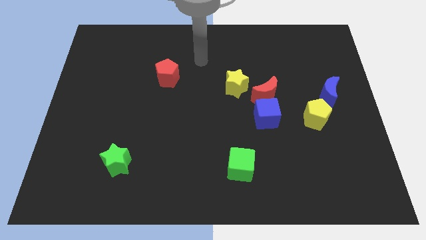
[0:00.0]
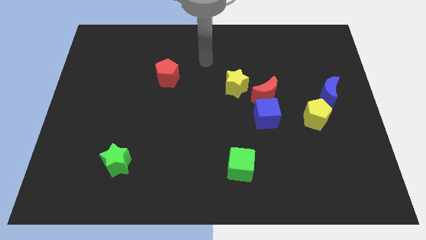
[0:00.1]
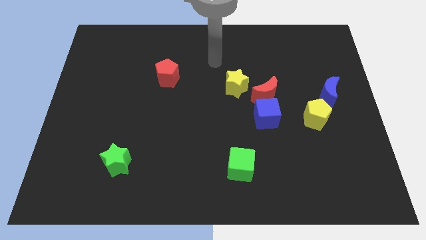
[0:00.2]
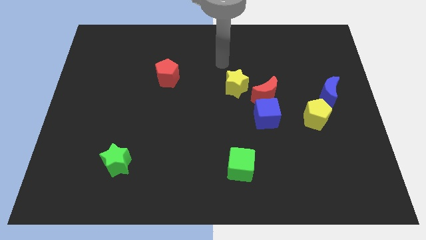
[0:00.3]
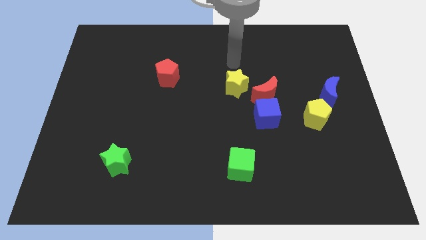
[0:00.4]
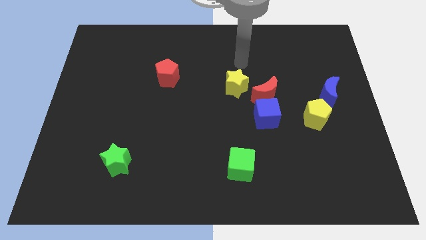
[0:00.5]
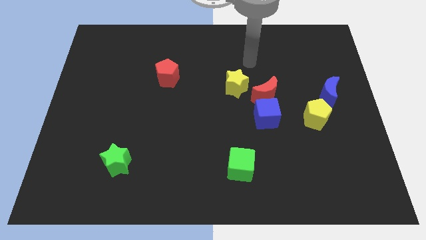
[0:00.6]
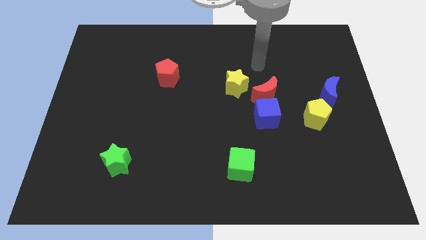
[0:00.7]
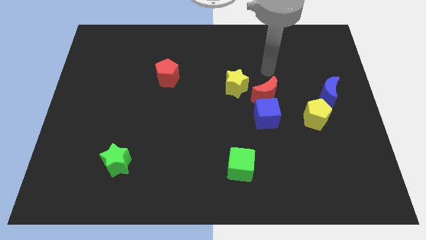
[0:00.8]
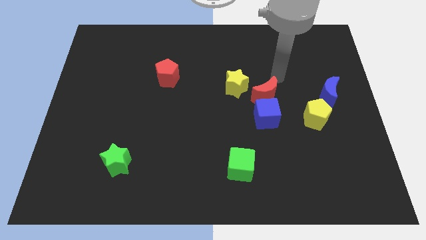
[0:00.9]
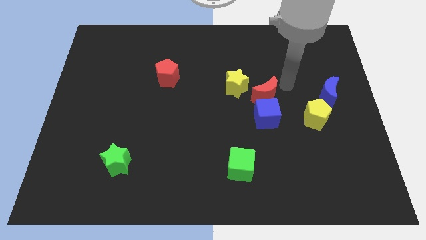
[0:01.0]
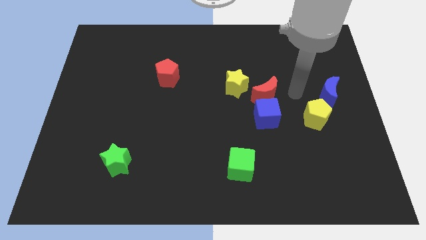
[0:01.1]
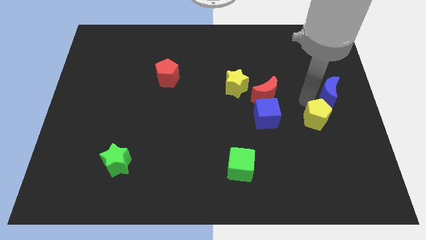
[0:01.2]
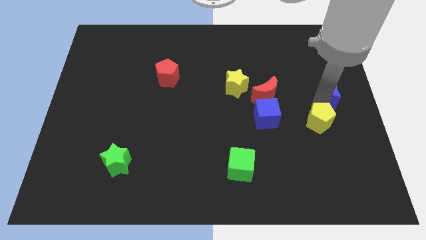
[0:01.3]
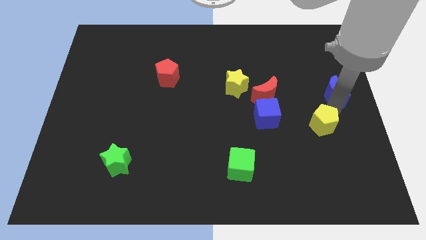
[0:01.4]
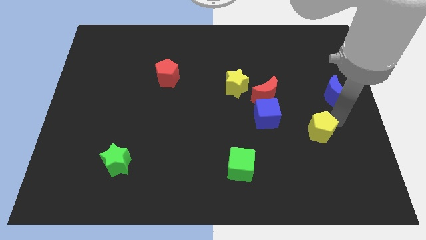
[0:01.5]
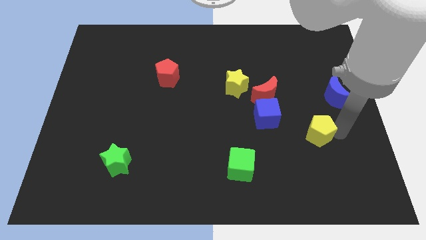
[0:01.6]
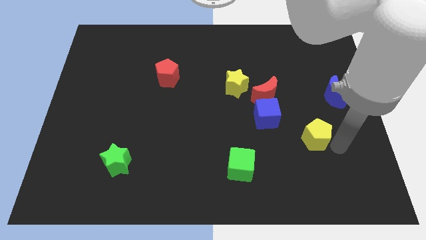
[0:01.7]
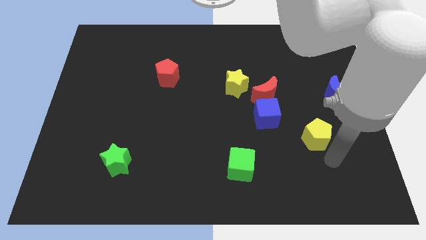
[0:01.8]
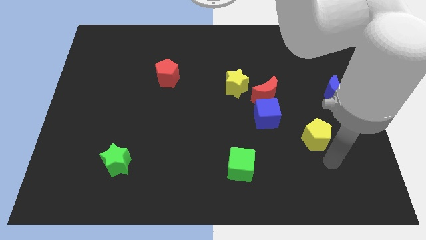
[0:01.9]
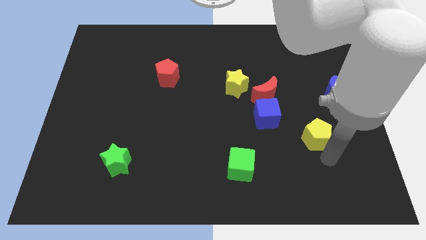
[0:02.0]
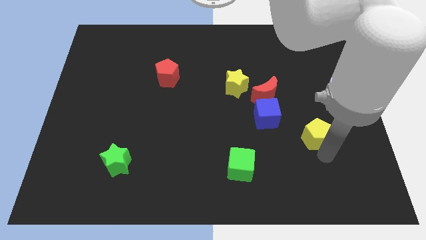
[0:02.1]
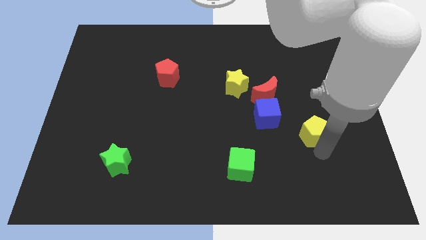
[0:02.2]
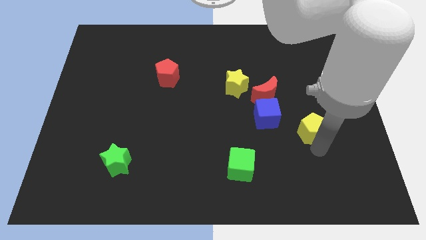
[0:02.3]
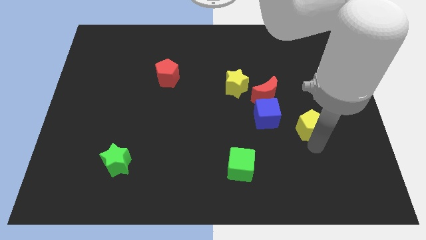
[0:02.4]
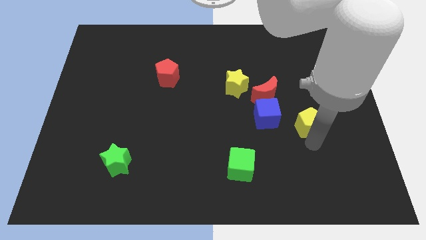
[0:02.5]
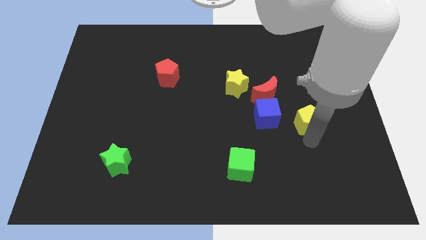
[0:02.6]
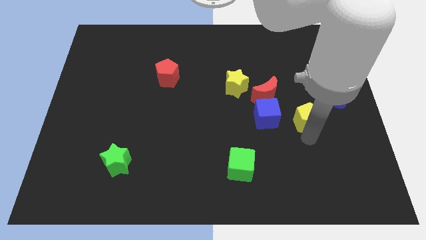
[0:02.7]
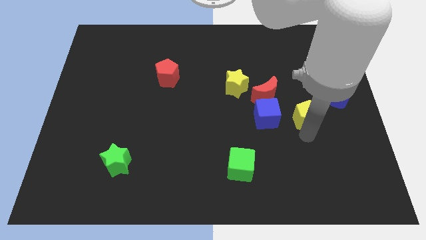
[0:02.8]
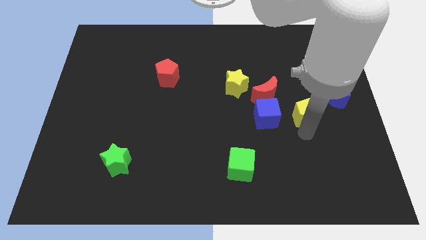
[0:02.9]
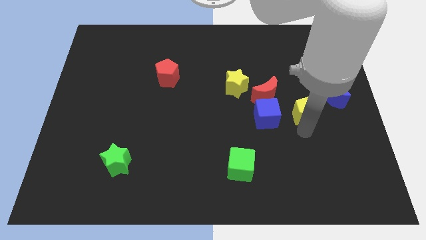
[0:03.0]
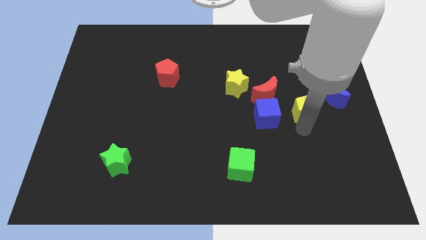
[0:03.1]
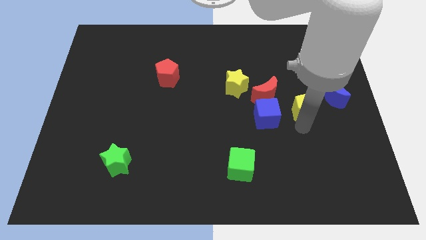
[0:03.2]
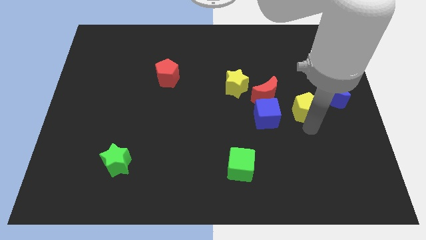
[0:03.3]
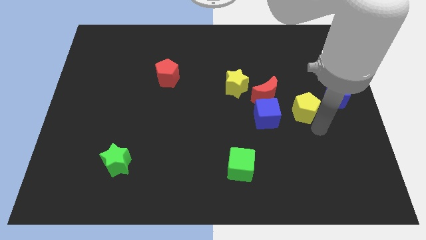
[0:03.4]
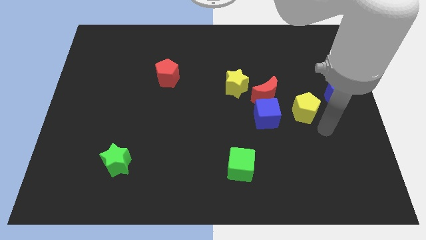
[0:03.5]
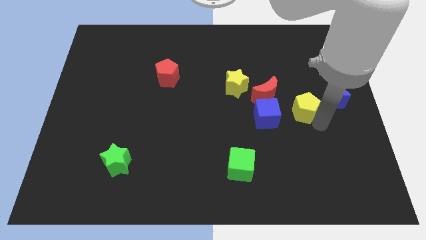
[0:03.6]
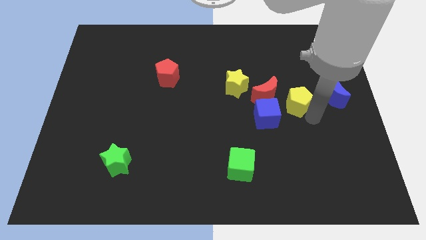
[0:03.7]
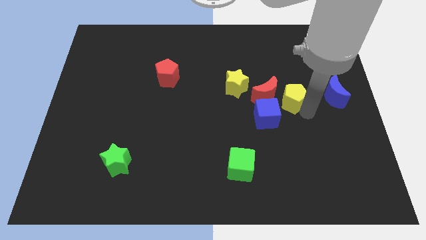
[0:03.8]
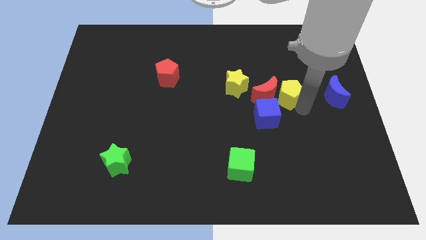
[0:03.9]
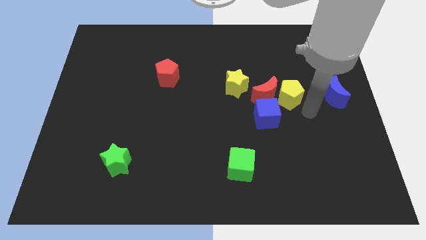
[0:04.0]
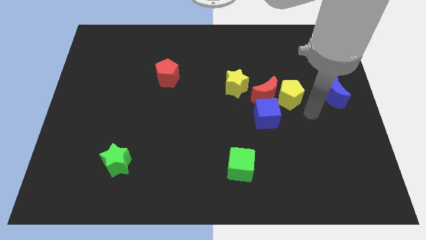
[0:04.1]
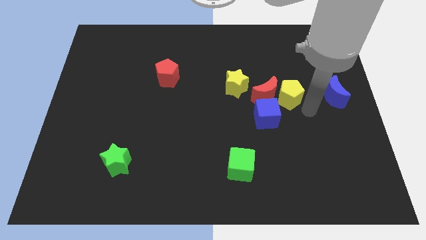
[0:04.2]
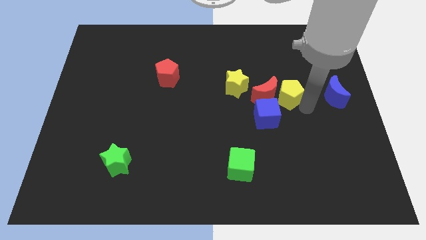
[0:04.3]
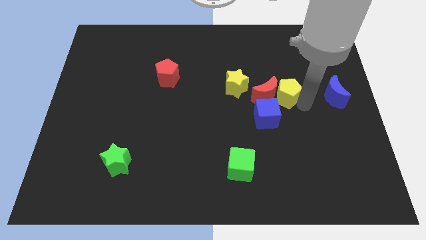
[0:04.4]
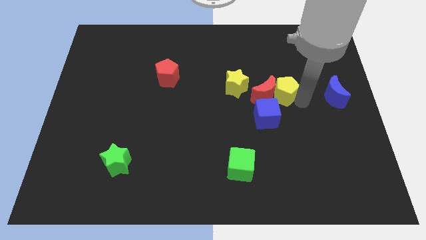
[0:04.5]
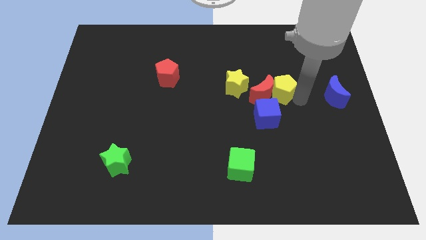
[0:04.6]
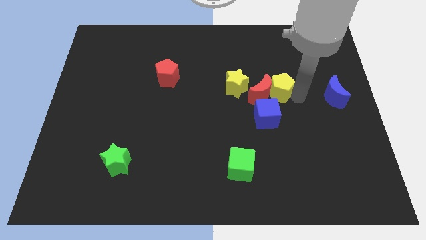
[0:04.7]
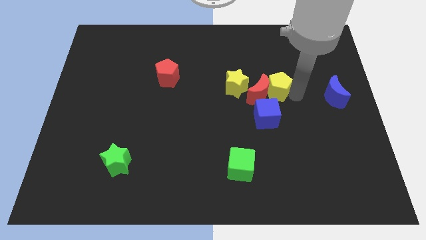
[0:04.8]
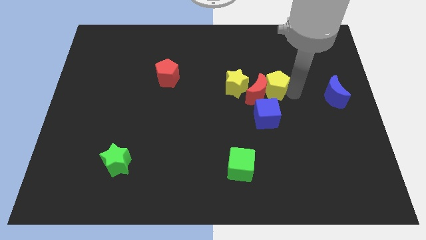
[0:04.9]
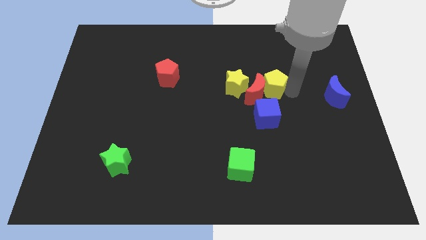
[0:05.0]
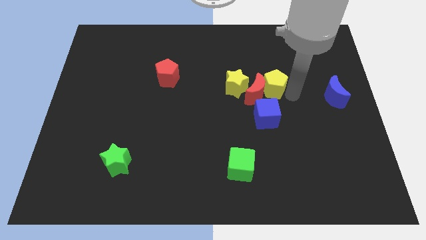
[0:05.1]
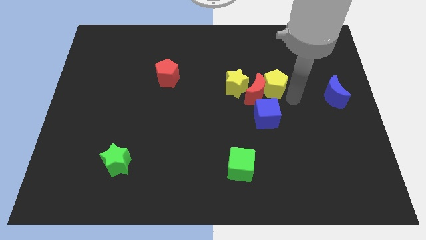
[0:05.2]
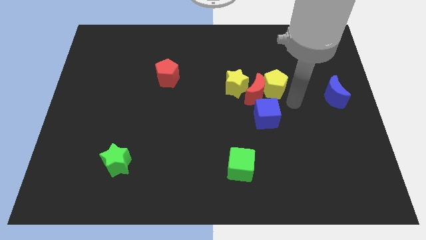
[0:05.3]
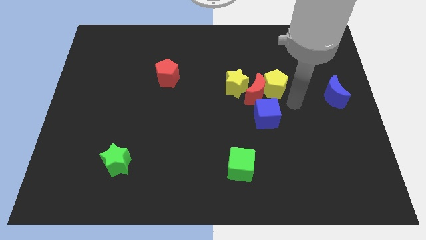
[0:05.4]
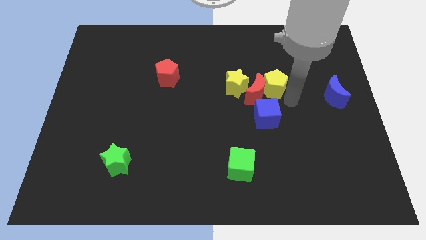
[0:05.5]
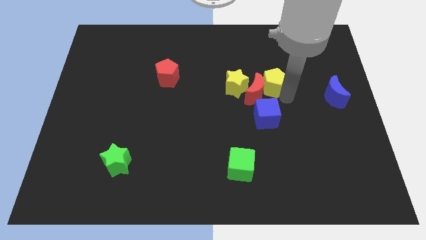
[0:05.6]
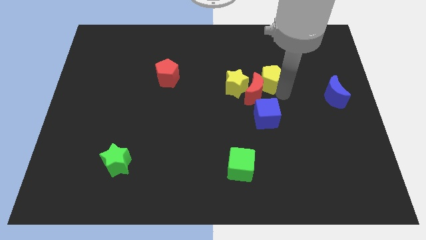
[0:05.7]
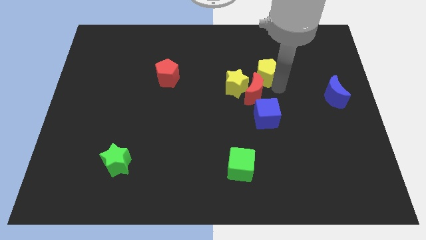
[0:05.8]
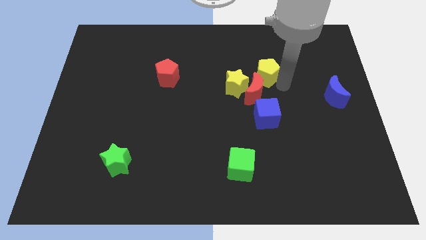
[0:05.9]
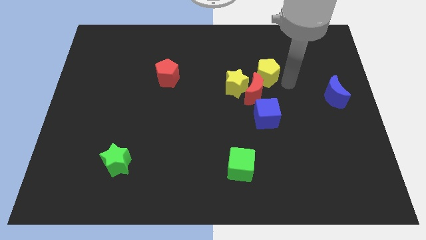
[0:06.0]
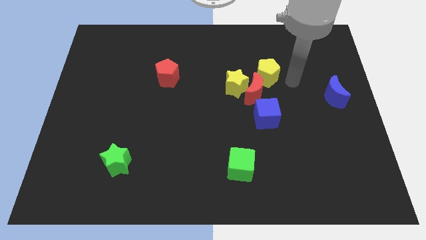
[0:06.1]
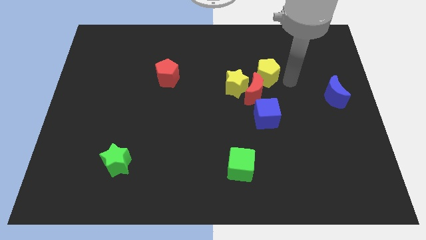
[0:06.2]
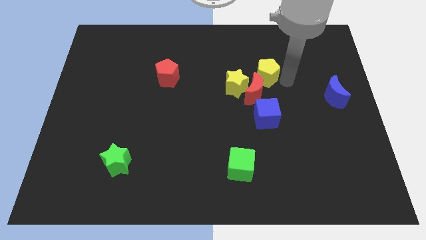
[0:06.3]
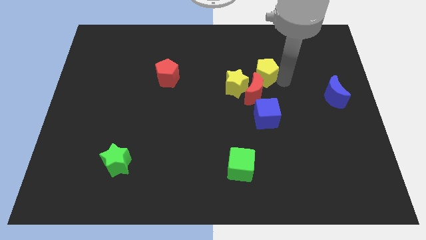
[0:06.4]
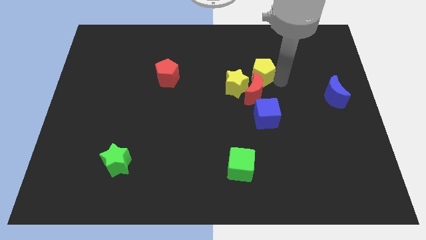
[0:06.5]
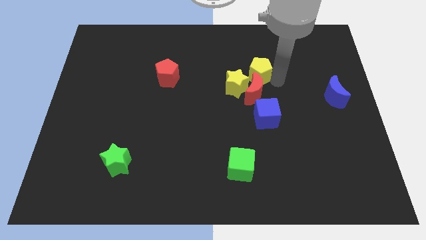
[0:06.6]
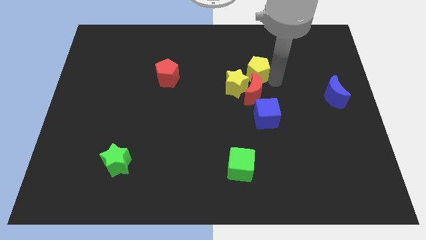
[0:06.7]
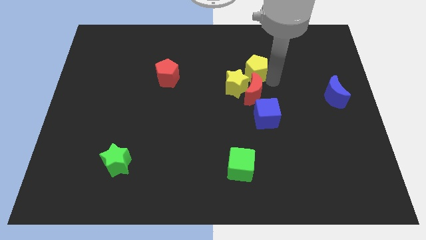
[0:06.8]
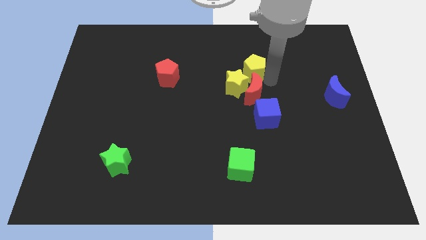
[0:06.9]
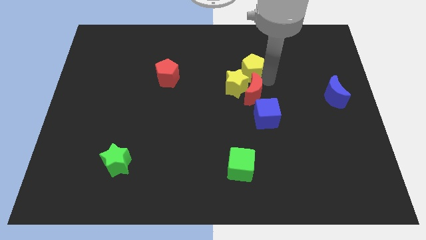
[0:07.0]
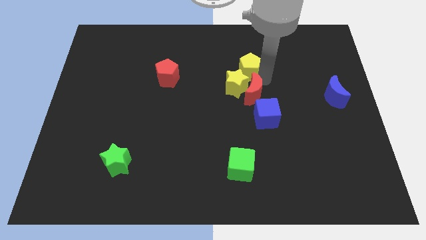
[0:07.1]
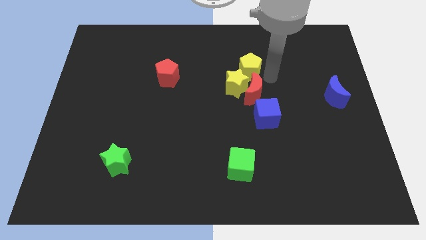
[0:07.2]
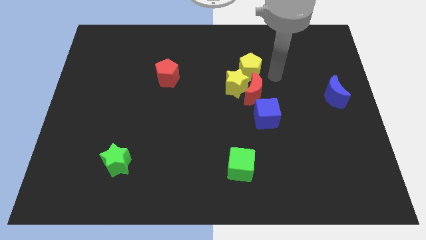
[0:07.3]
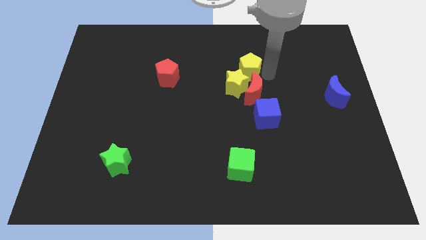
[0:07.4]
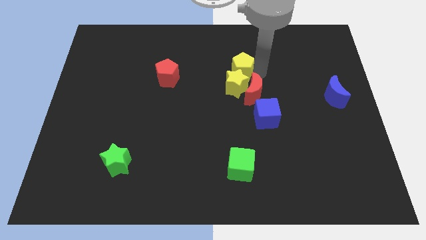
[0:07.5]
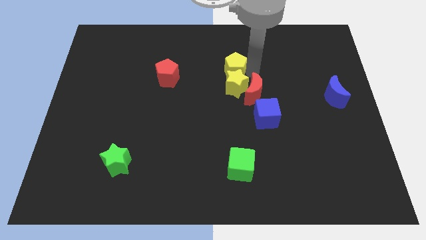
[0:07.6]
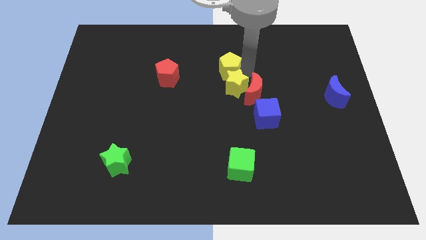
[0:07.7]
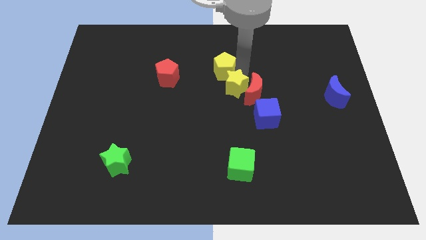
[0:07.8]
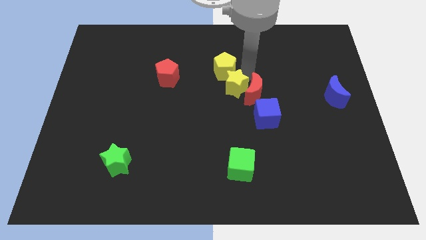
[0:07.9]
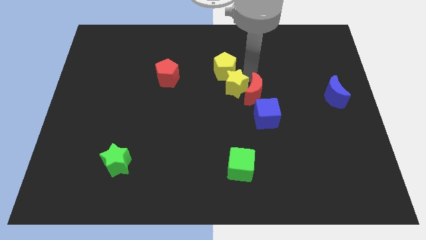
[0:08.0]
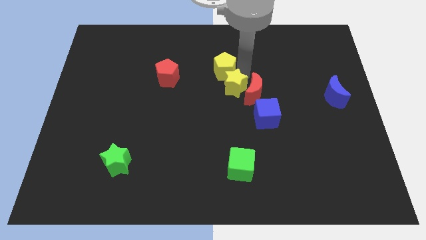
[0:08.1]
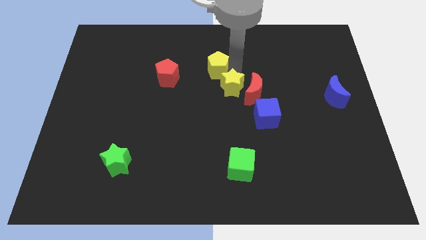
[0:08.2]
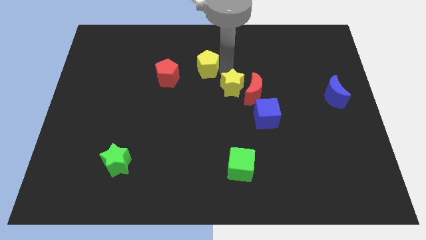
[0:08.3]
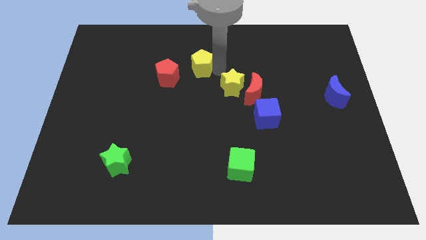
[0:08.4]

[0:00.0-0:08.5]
push the yellow pentagon to the top right side of the red pentagon
